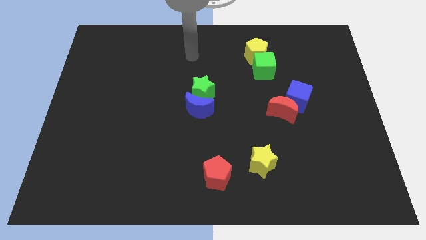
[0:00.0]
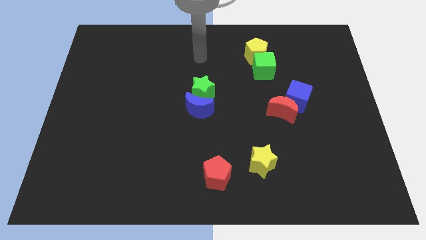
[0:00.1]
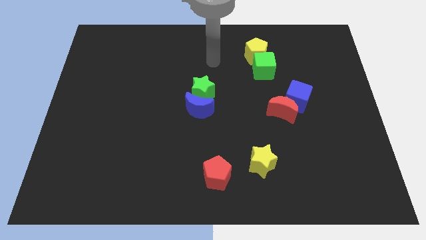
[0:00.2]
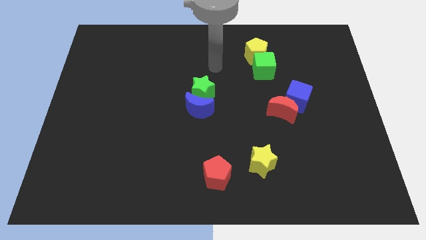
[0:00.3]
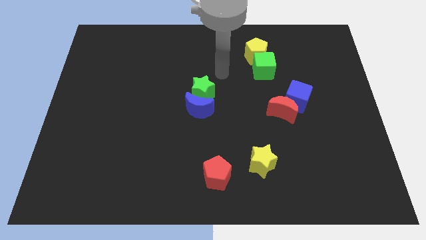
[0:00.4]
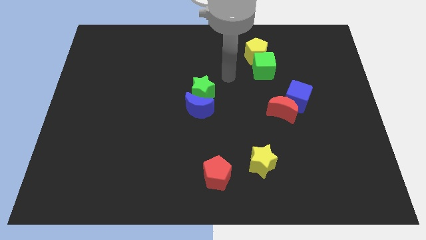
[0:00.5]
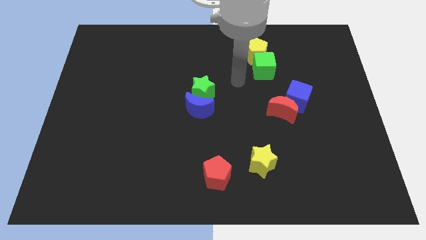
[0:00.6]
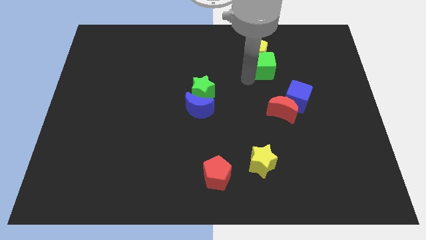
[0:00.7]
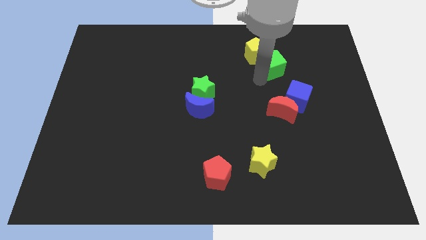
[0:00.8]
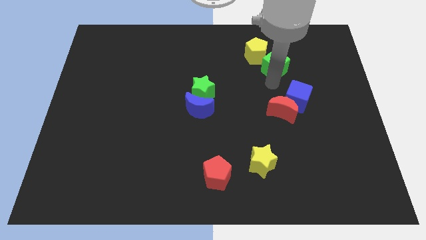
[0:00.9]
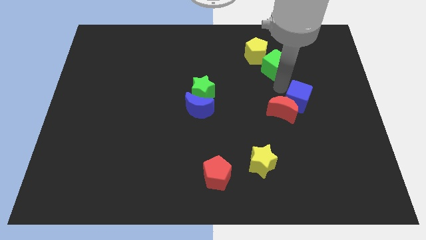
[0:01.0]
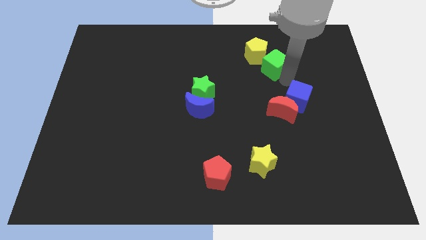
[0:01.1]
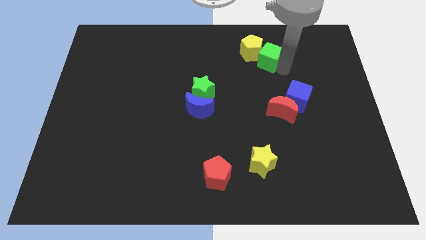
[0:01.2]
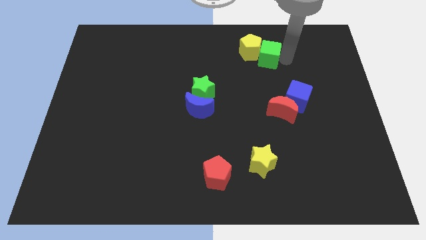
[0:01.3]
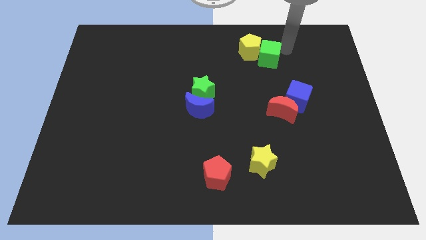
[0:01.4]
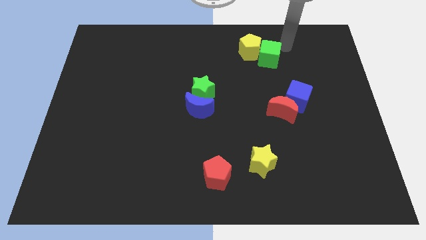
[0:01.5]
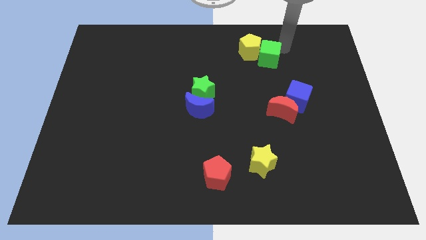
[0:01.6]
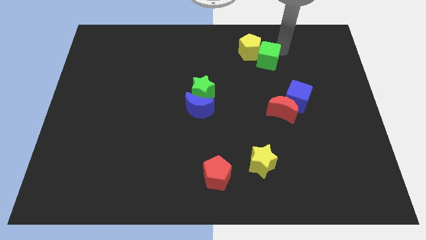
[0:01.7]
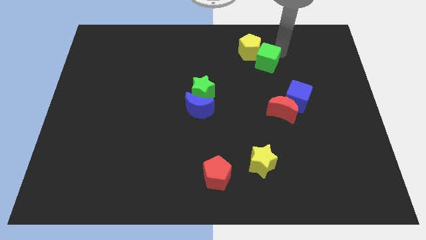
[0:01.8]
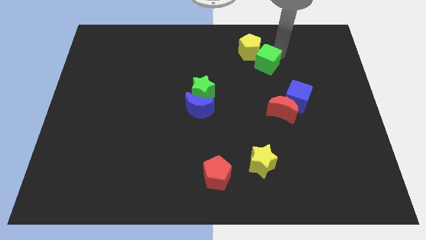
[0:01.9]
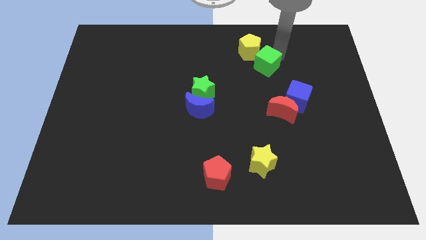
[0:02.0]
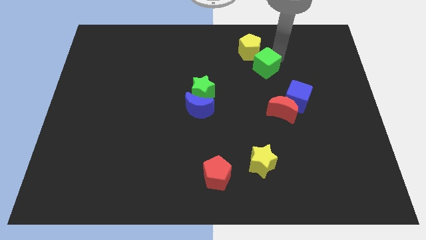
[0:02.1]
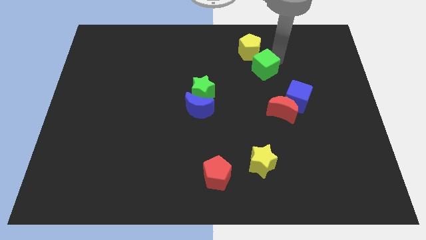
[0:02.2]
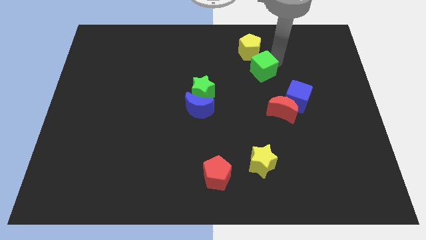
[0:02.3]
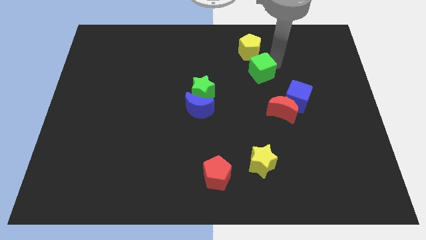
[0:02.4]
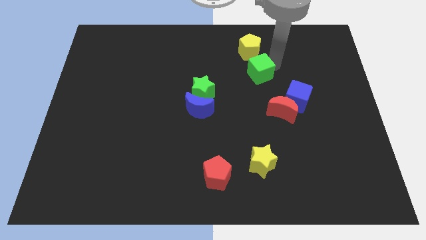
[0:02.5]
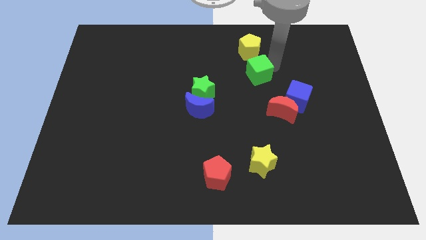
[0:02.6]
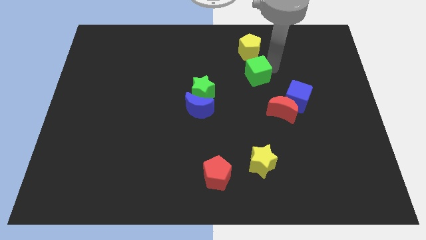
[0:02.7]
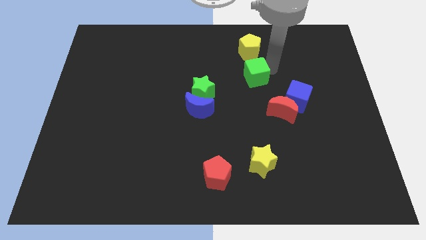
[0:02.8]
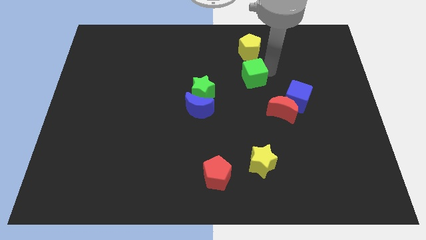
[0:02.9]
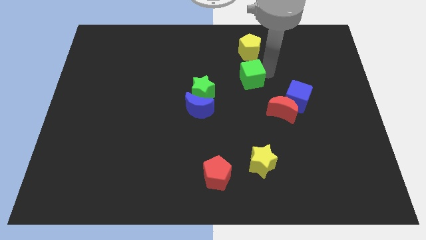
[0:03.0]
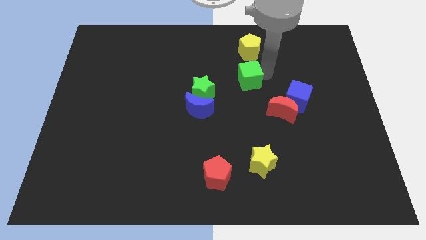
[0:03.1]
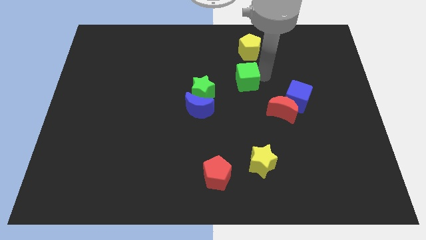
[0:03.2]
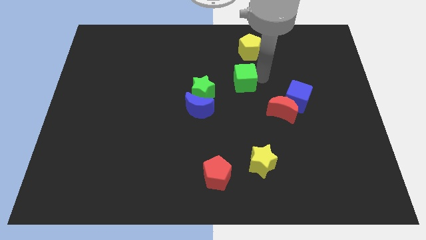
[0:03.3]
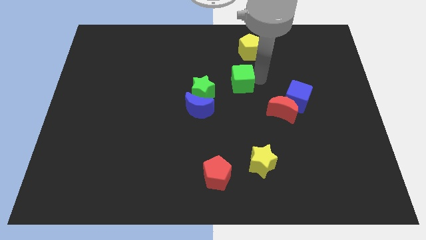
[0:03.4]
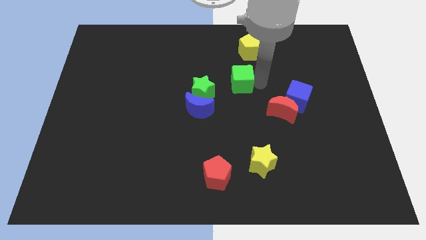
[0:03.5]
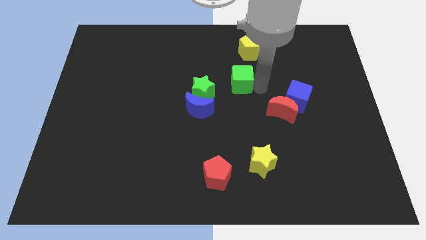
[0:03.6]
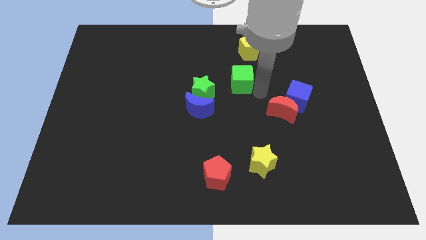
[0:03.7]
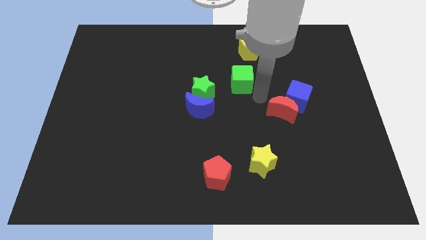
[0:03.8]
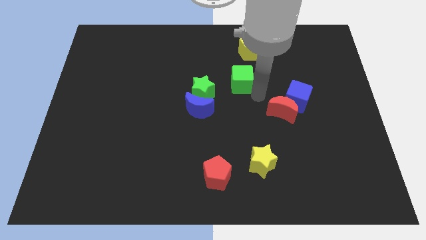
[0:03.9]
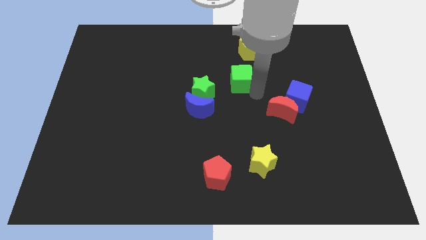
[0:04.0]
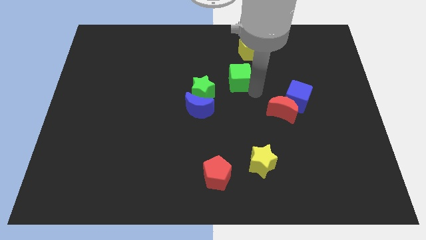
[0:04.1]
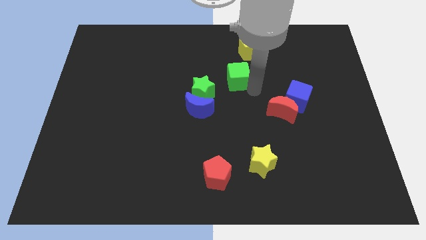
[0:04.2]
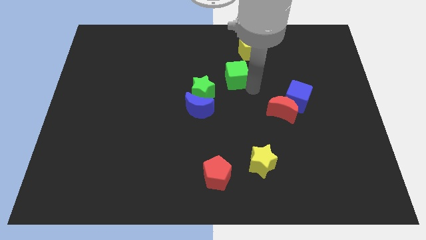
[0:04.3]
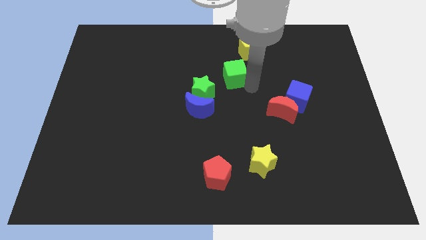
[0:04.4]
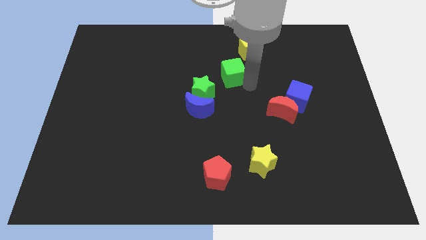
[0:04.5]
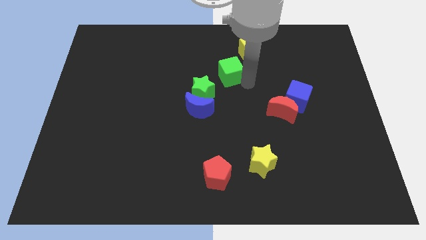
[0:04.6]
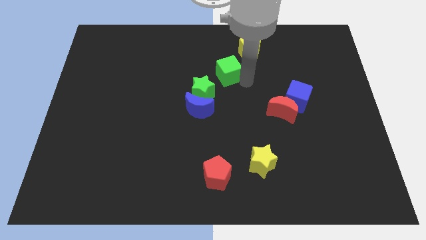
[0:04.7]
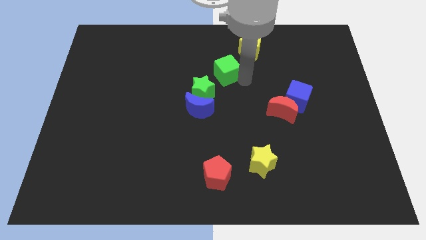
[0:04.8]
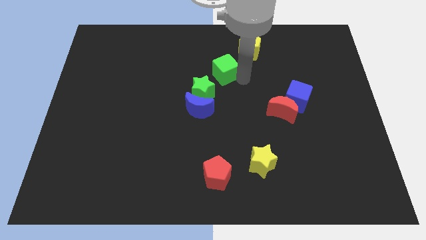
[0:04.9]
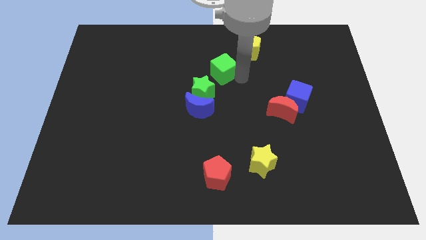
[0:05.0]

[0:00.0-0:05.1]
slide the green cube above the green star
